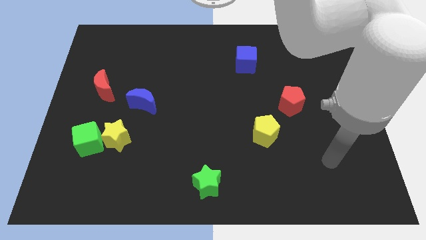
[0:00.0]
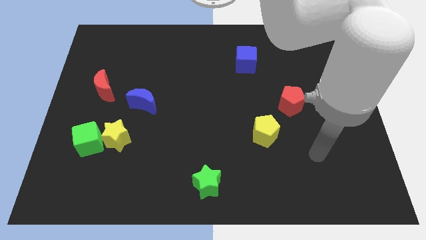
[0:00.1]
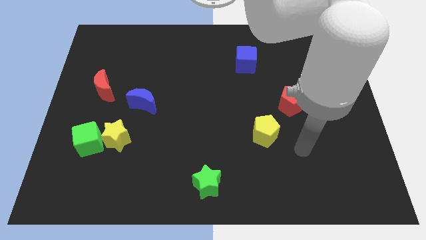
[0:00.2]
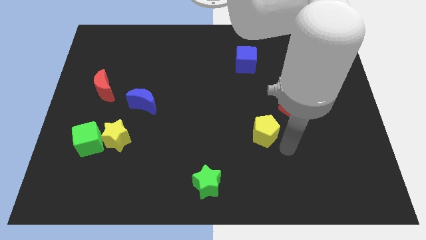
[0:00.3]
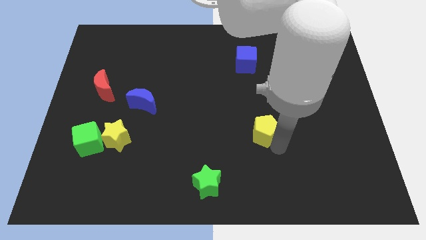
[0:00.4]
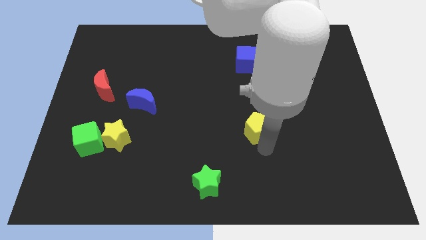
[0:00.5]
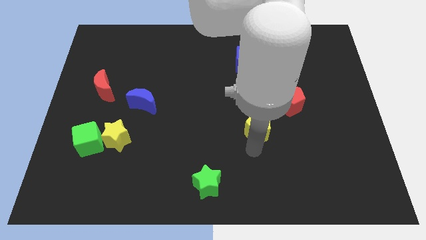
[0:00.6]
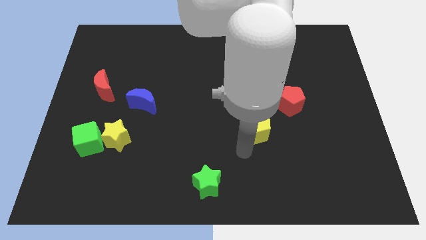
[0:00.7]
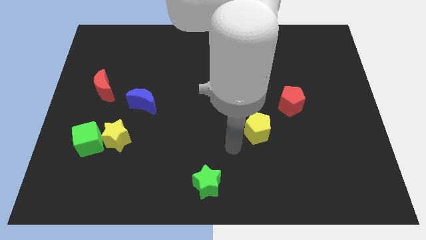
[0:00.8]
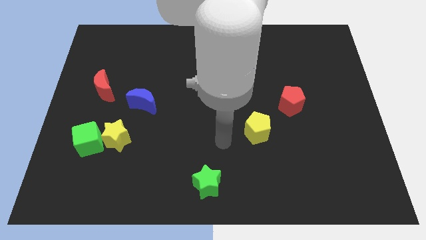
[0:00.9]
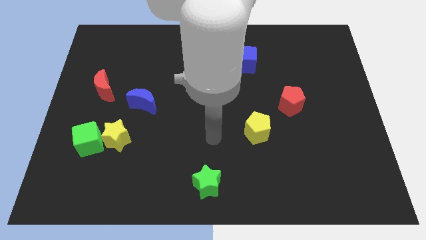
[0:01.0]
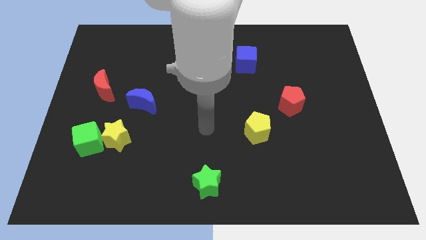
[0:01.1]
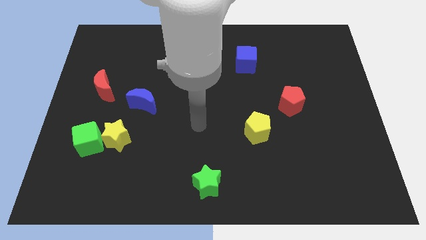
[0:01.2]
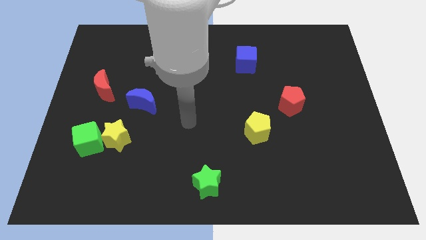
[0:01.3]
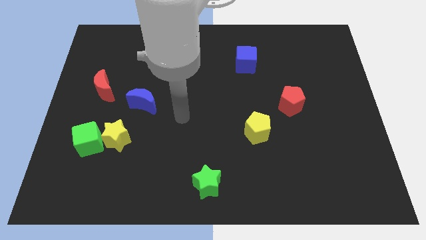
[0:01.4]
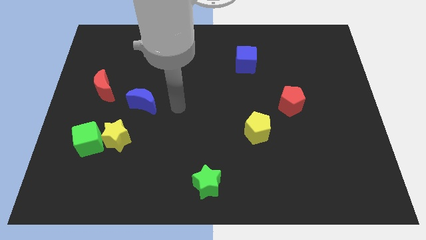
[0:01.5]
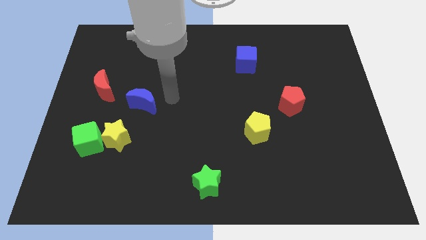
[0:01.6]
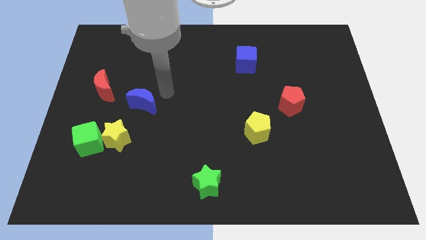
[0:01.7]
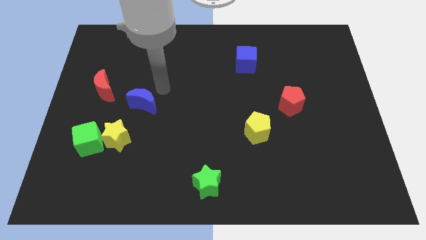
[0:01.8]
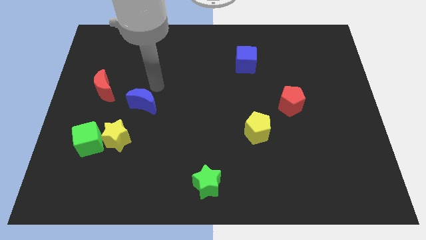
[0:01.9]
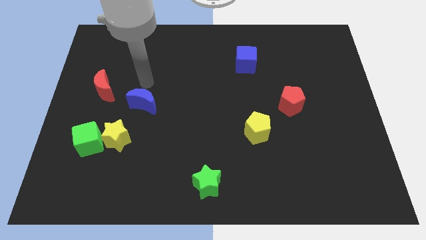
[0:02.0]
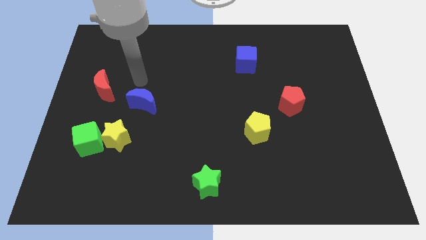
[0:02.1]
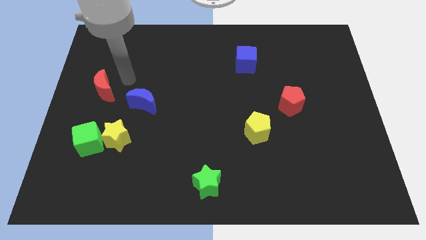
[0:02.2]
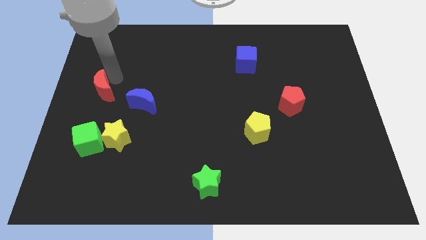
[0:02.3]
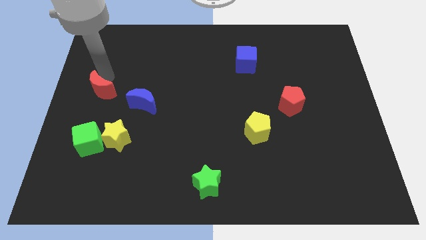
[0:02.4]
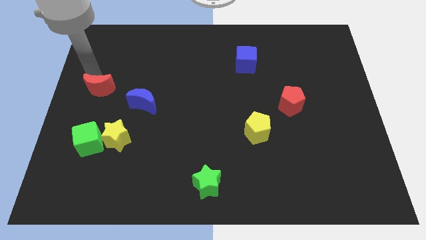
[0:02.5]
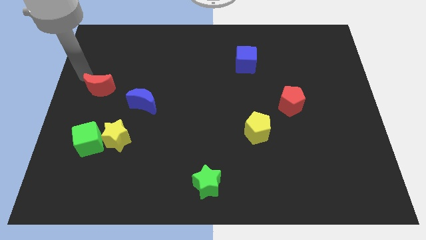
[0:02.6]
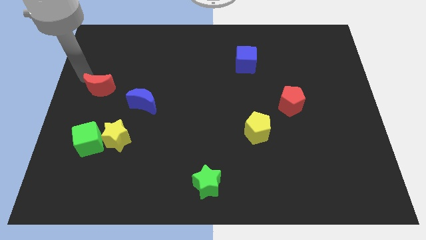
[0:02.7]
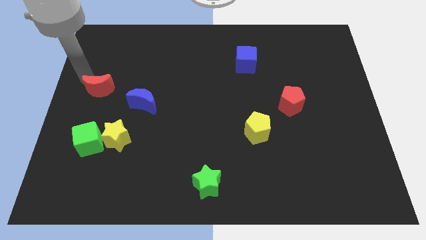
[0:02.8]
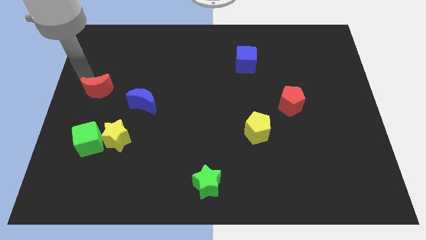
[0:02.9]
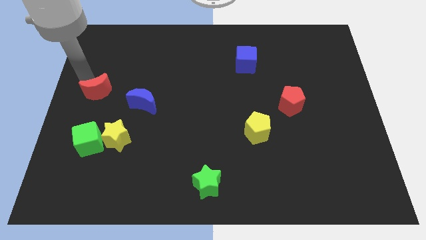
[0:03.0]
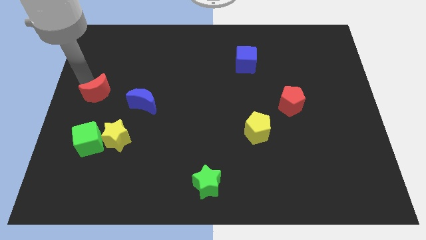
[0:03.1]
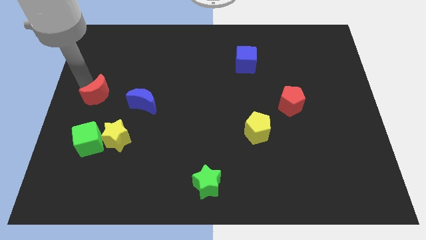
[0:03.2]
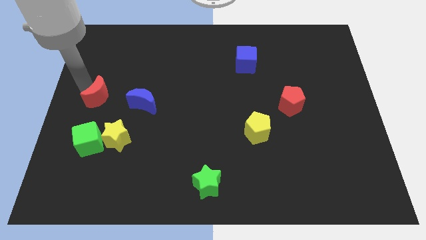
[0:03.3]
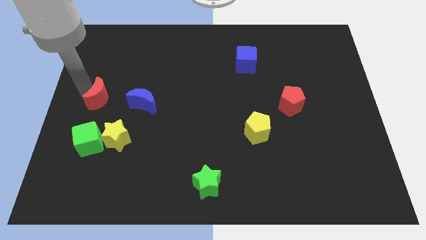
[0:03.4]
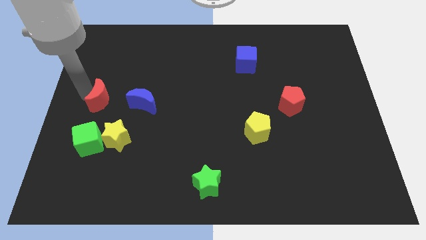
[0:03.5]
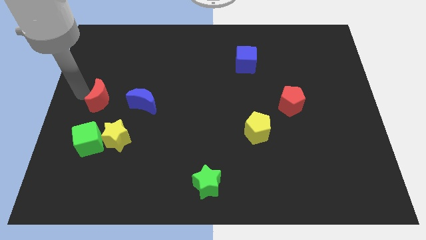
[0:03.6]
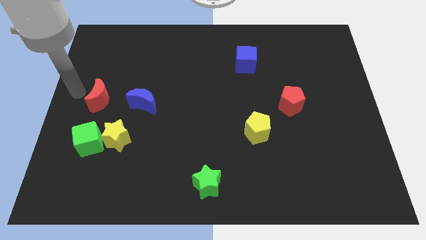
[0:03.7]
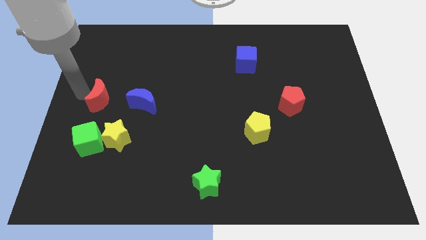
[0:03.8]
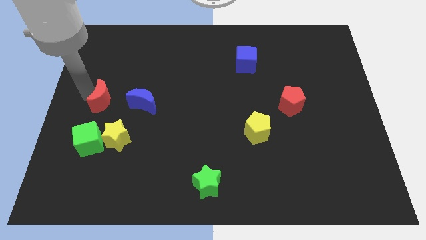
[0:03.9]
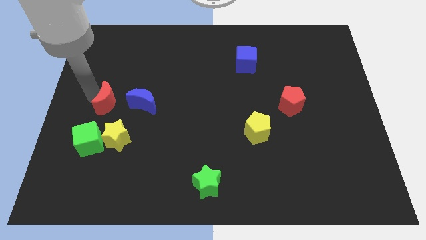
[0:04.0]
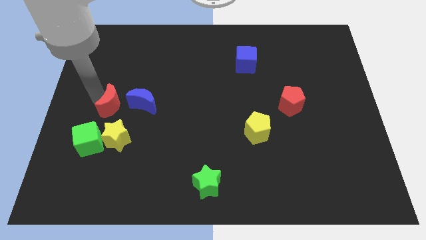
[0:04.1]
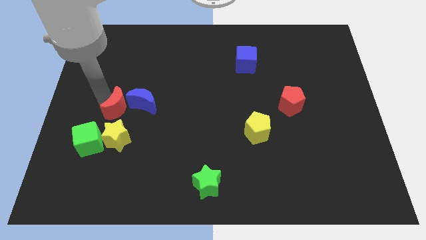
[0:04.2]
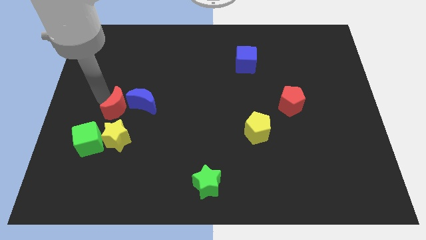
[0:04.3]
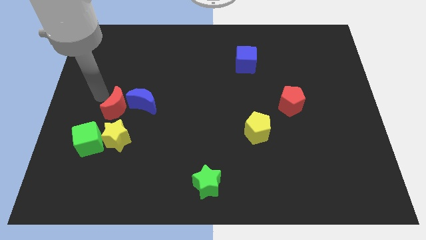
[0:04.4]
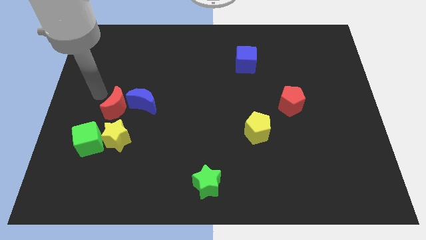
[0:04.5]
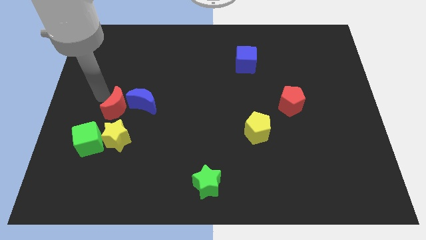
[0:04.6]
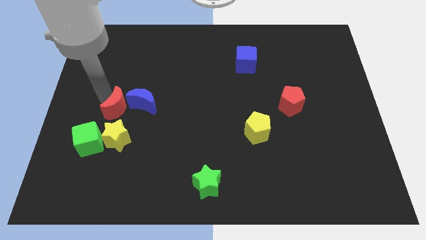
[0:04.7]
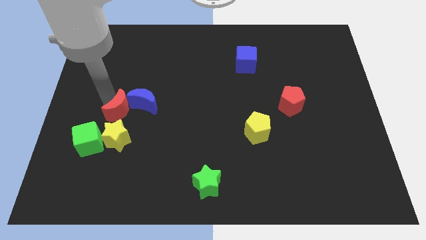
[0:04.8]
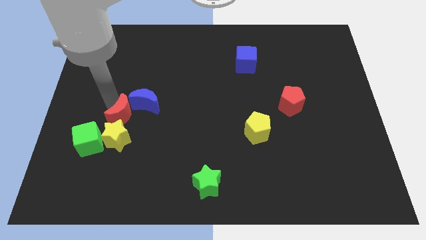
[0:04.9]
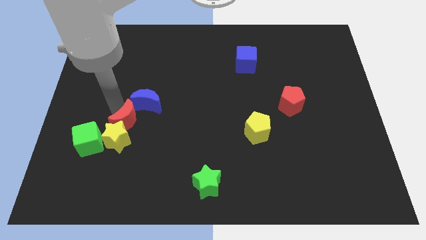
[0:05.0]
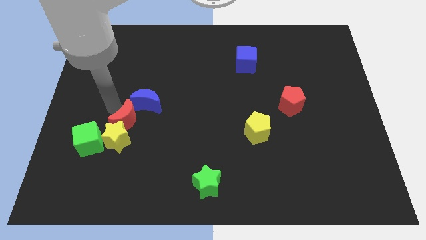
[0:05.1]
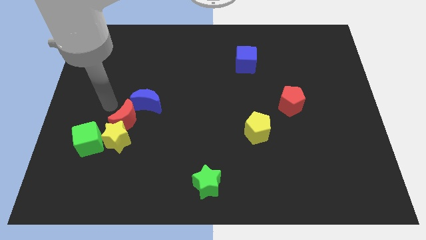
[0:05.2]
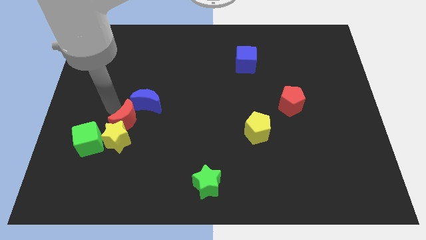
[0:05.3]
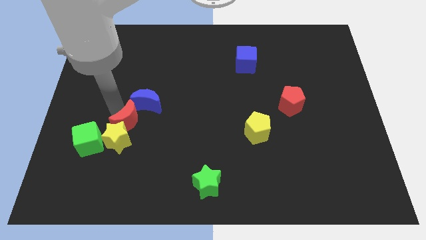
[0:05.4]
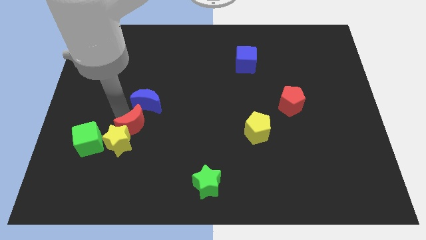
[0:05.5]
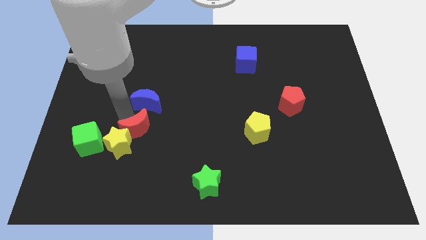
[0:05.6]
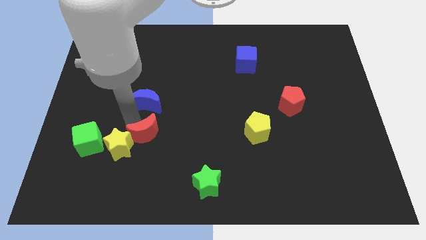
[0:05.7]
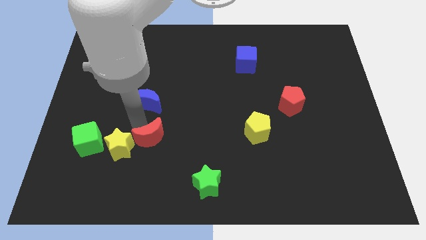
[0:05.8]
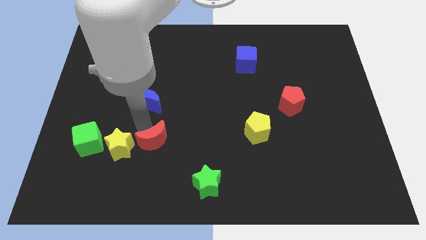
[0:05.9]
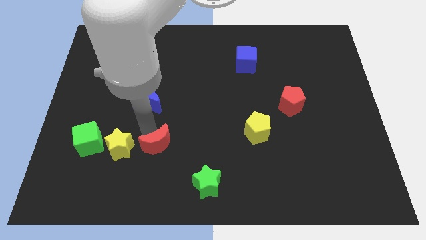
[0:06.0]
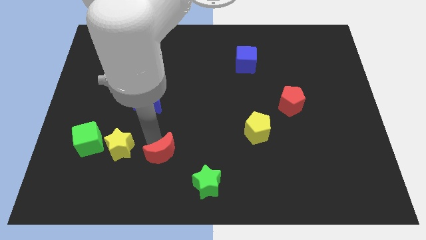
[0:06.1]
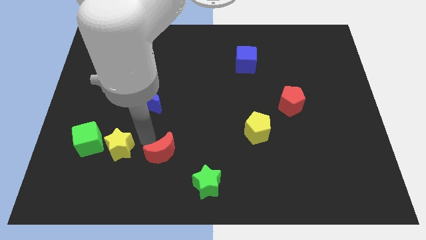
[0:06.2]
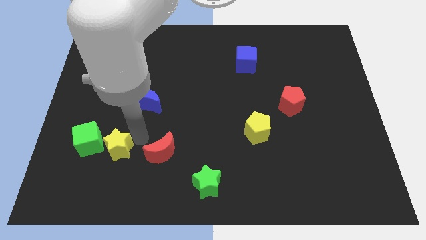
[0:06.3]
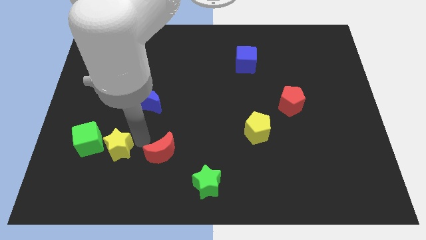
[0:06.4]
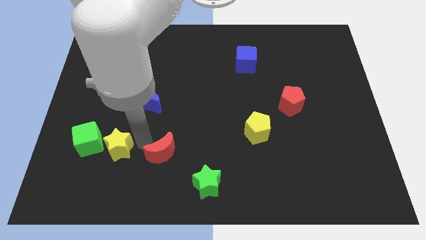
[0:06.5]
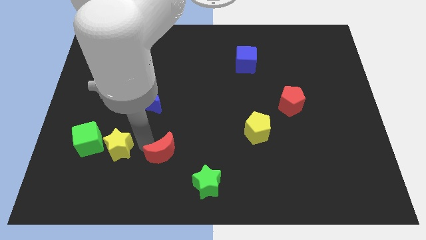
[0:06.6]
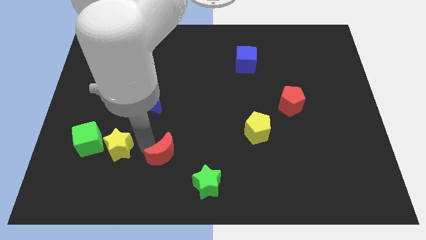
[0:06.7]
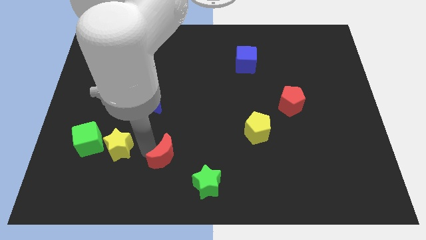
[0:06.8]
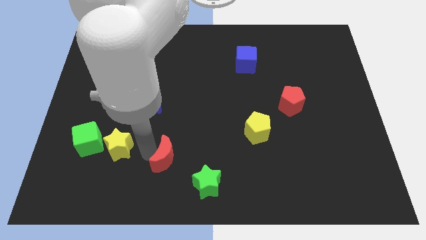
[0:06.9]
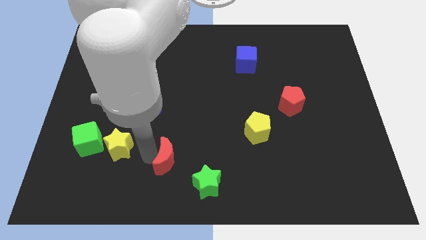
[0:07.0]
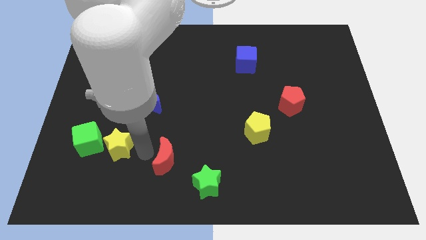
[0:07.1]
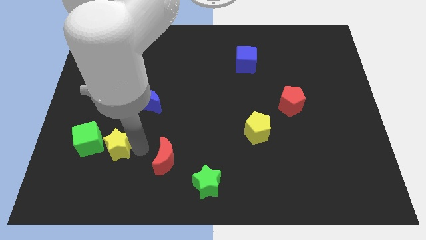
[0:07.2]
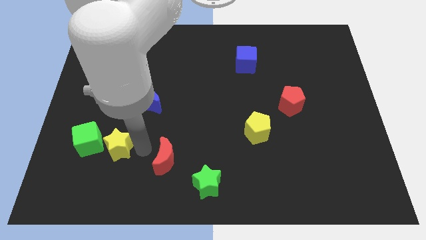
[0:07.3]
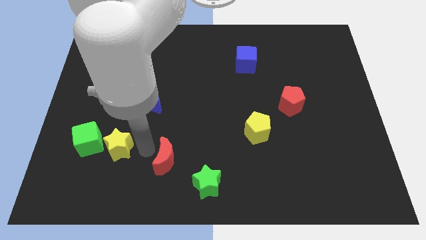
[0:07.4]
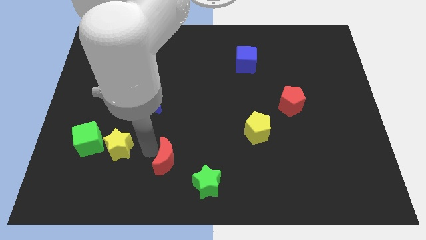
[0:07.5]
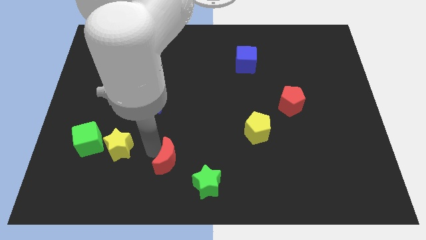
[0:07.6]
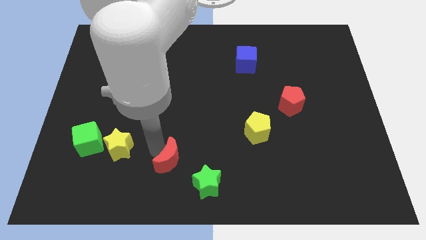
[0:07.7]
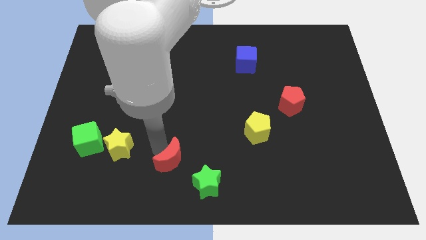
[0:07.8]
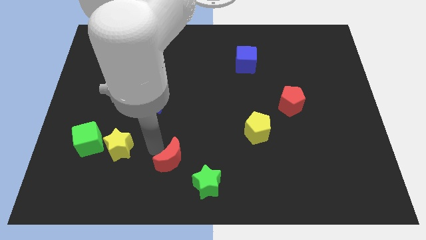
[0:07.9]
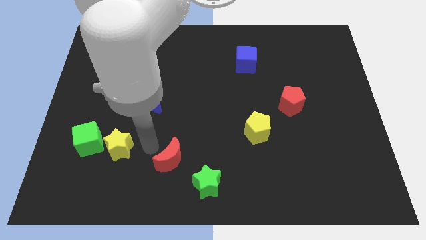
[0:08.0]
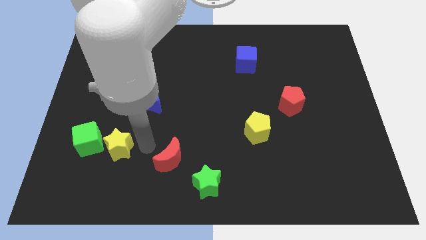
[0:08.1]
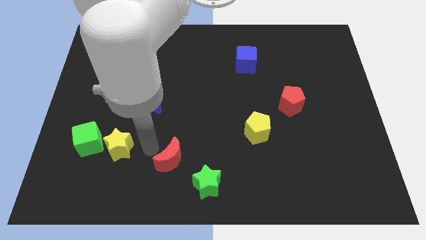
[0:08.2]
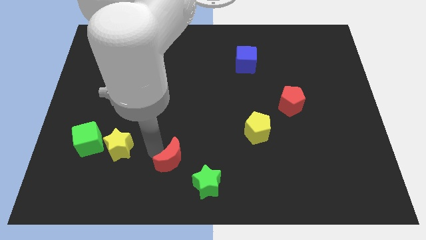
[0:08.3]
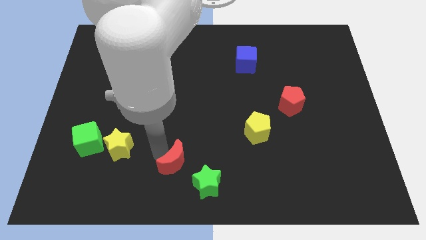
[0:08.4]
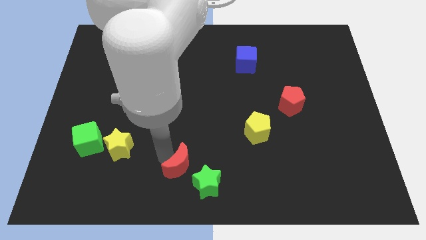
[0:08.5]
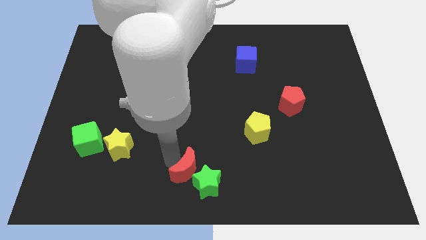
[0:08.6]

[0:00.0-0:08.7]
push the red moon close to the green star
